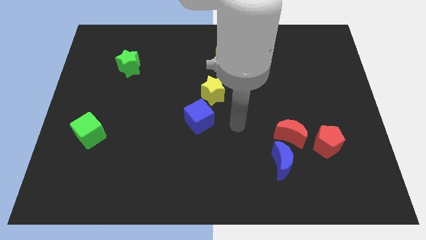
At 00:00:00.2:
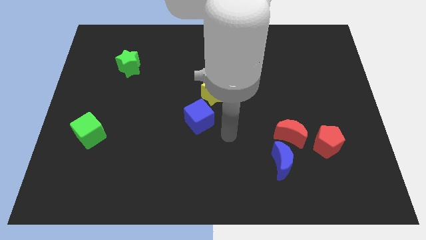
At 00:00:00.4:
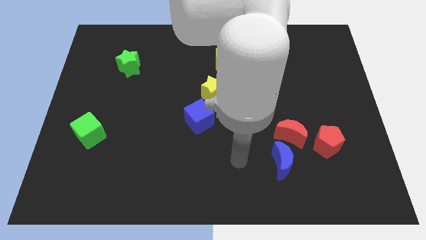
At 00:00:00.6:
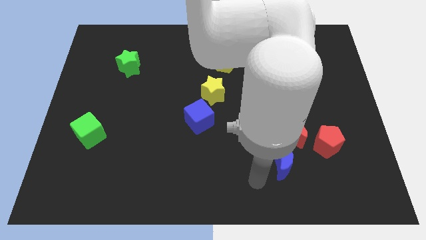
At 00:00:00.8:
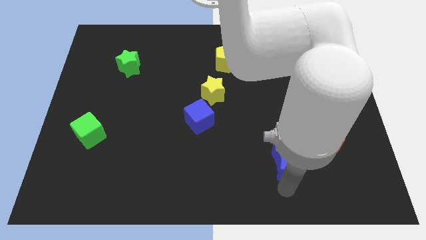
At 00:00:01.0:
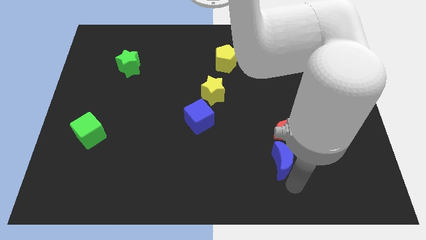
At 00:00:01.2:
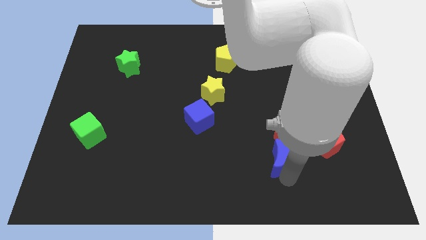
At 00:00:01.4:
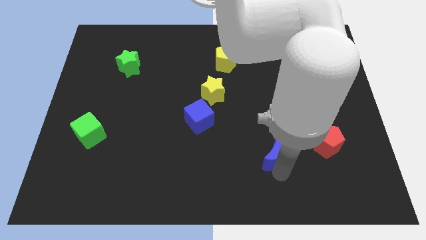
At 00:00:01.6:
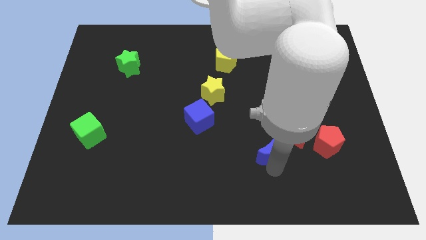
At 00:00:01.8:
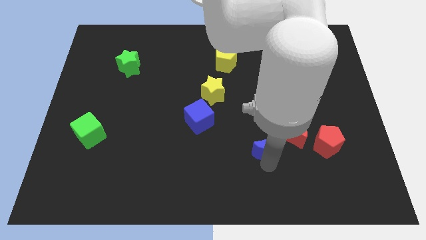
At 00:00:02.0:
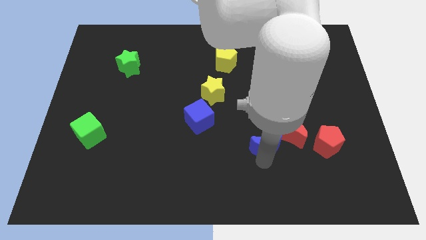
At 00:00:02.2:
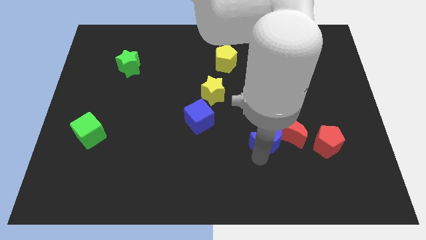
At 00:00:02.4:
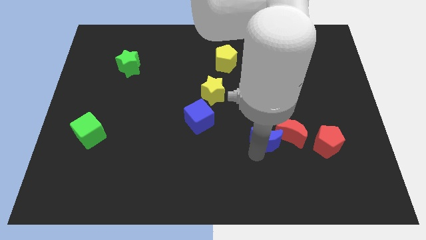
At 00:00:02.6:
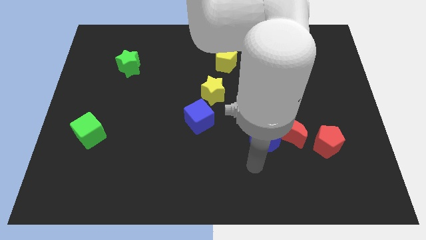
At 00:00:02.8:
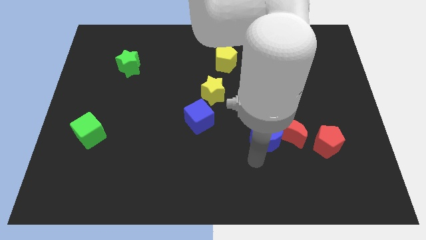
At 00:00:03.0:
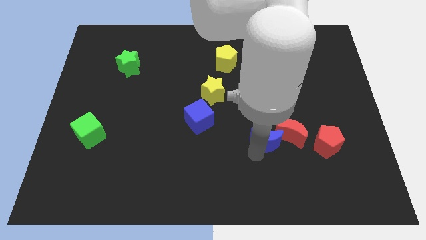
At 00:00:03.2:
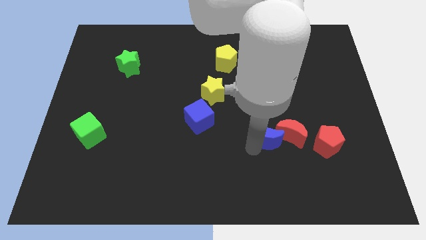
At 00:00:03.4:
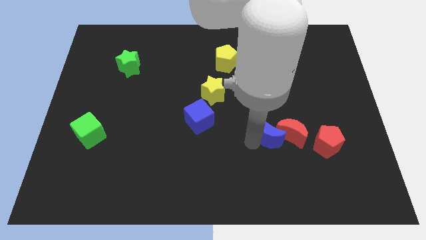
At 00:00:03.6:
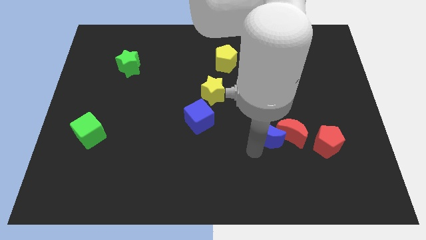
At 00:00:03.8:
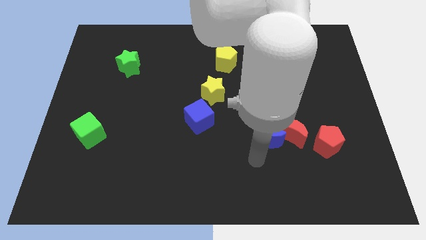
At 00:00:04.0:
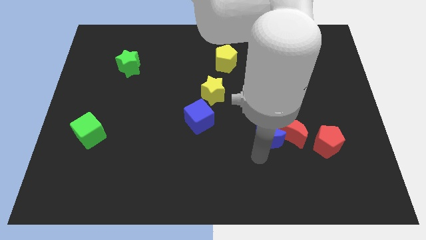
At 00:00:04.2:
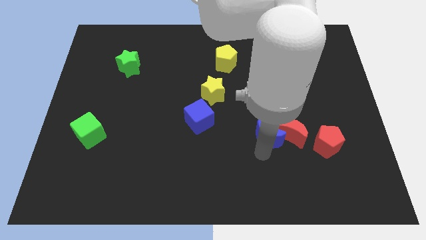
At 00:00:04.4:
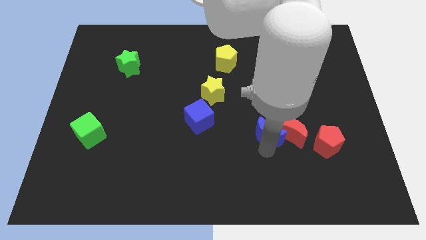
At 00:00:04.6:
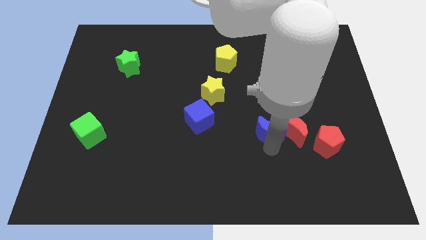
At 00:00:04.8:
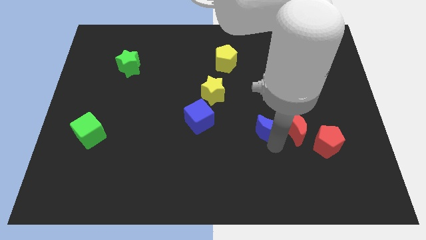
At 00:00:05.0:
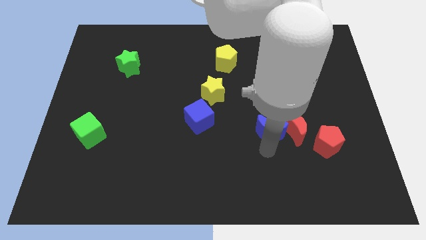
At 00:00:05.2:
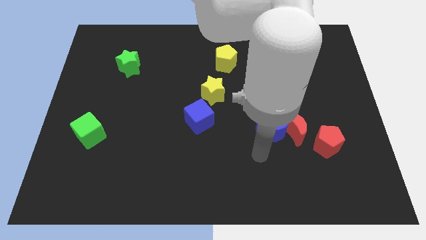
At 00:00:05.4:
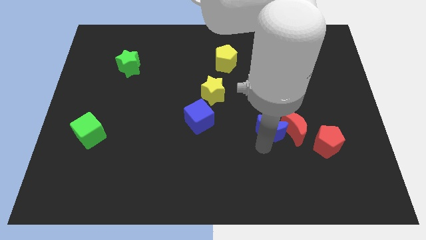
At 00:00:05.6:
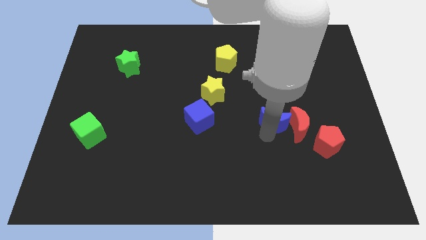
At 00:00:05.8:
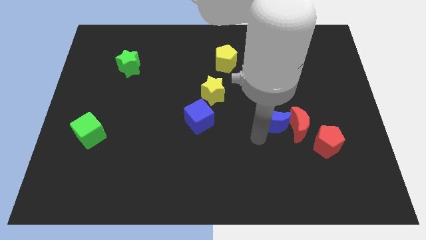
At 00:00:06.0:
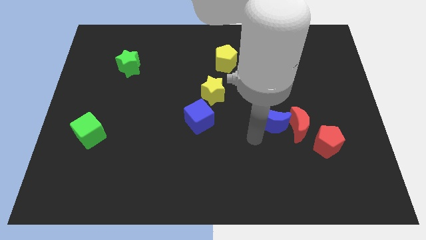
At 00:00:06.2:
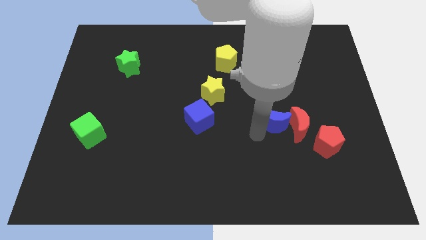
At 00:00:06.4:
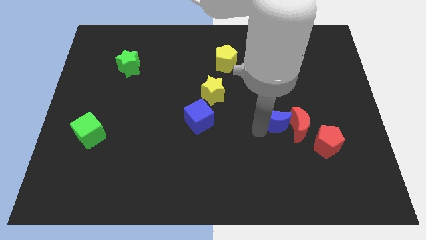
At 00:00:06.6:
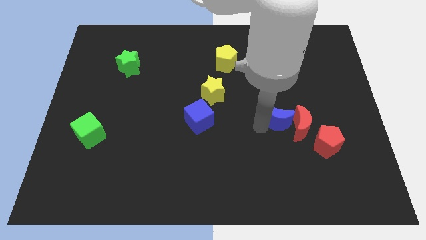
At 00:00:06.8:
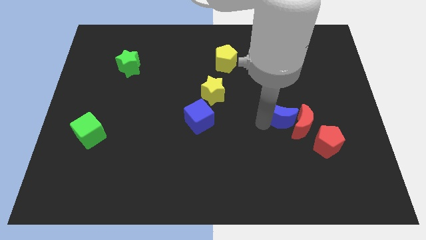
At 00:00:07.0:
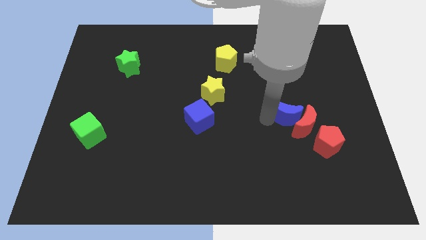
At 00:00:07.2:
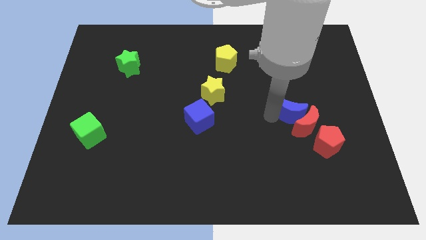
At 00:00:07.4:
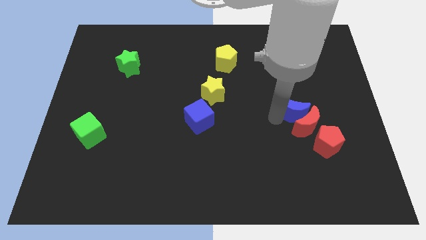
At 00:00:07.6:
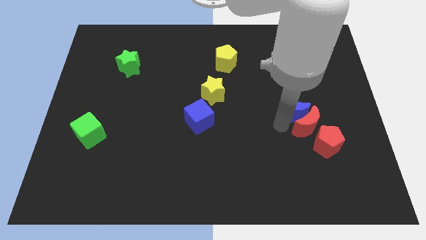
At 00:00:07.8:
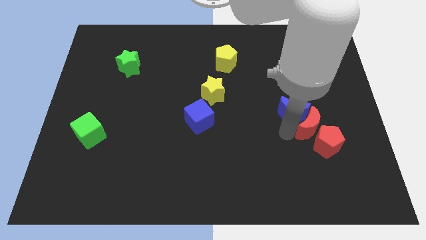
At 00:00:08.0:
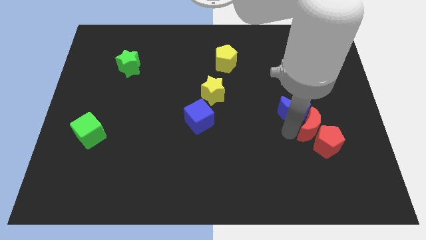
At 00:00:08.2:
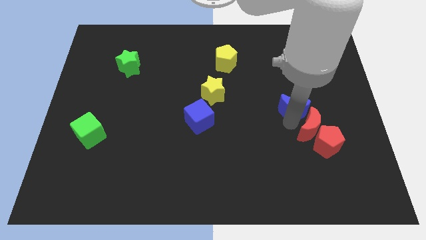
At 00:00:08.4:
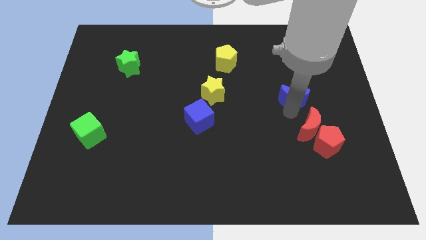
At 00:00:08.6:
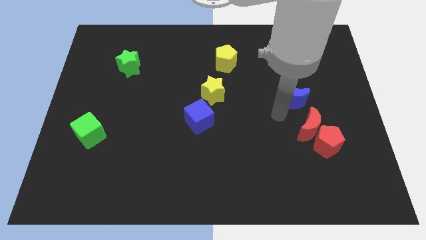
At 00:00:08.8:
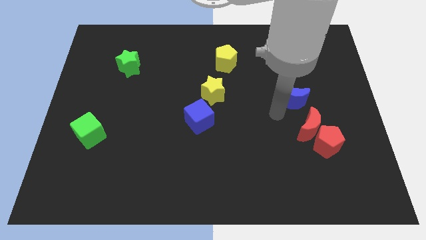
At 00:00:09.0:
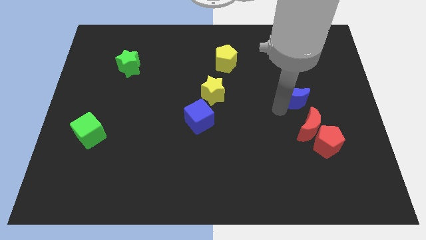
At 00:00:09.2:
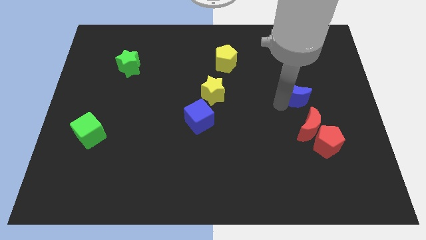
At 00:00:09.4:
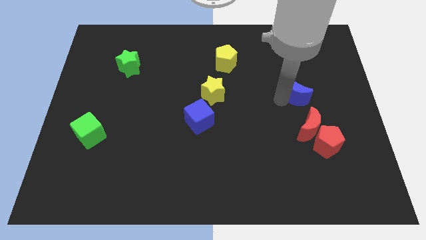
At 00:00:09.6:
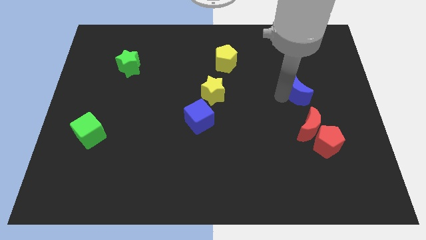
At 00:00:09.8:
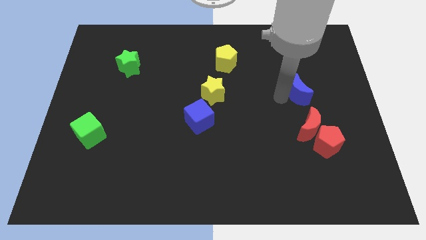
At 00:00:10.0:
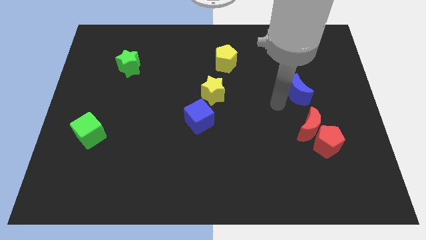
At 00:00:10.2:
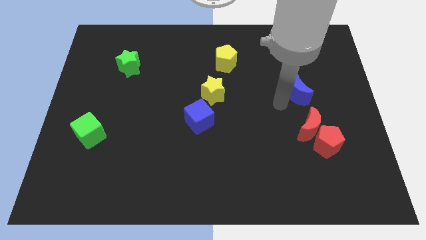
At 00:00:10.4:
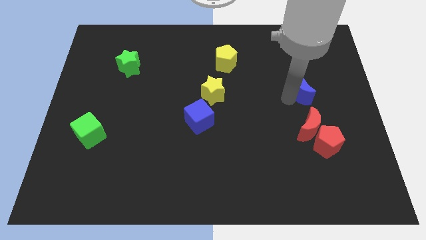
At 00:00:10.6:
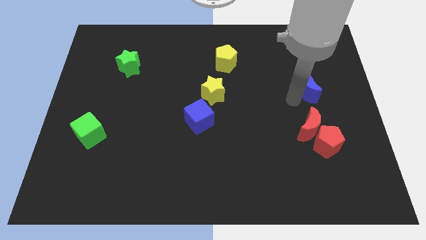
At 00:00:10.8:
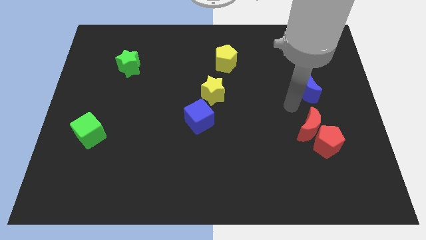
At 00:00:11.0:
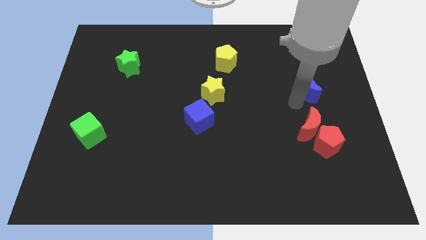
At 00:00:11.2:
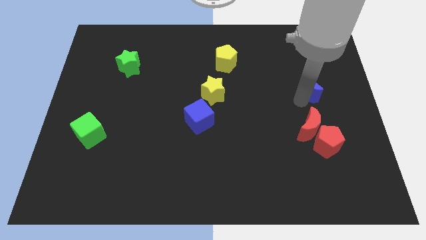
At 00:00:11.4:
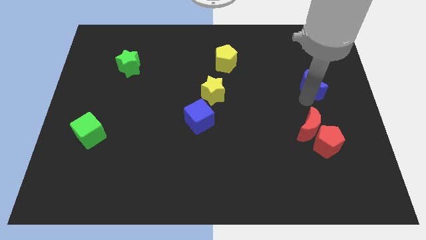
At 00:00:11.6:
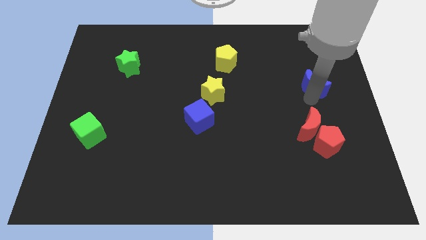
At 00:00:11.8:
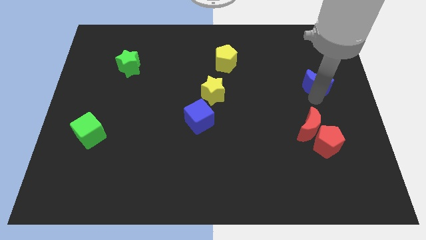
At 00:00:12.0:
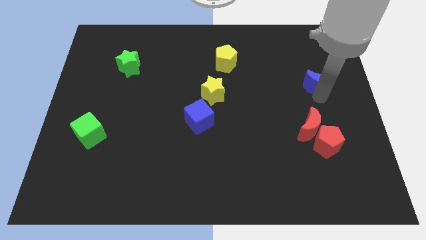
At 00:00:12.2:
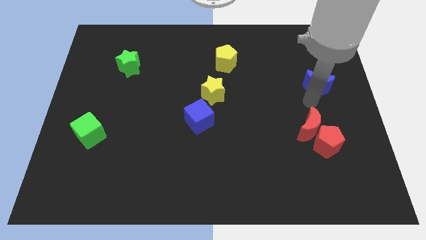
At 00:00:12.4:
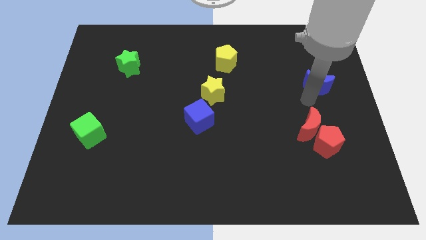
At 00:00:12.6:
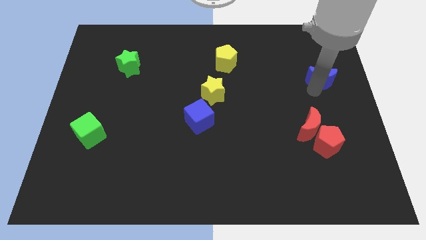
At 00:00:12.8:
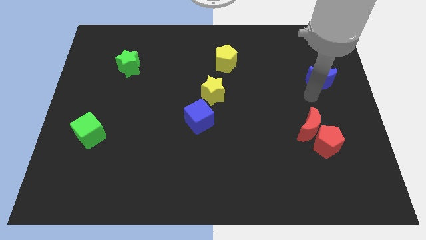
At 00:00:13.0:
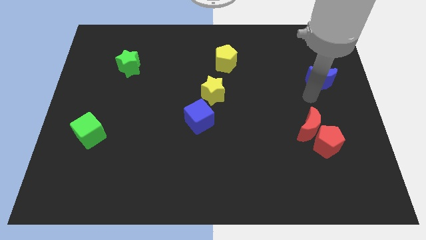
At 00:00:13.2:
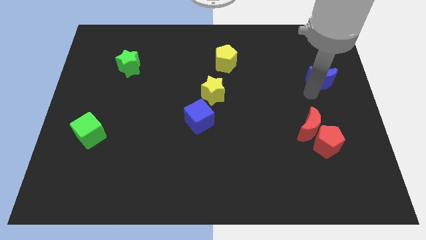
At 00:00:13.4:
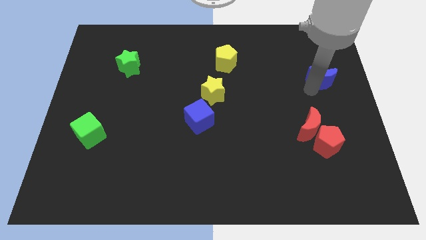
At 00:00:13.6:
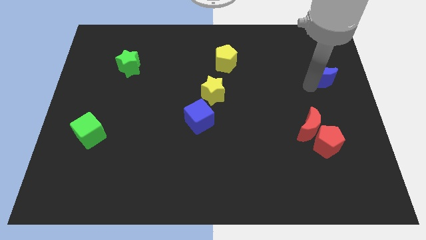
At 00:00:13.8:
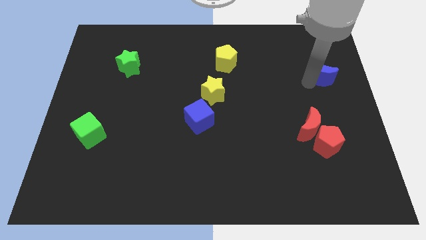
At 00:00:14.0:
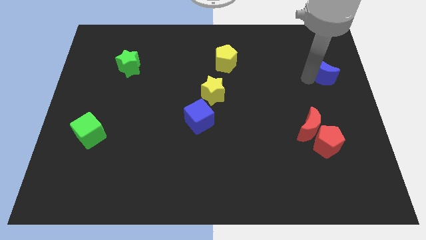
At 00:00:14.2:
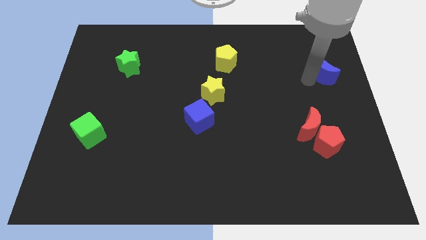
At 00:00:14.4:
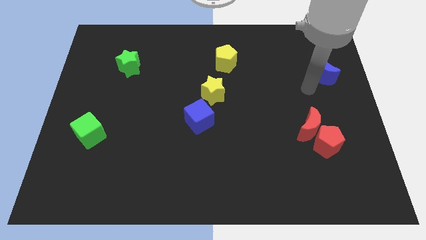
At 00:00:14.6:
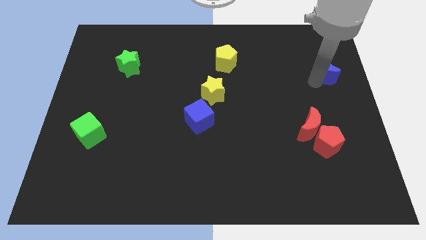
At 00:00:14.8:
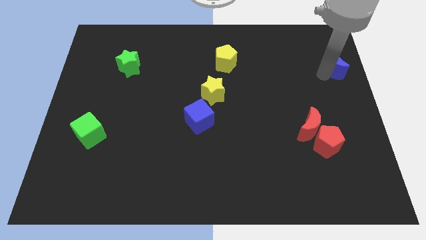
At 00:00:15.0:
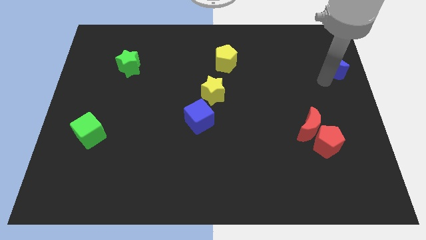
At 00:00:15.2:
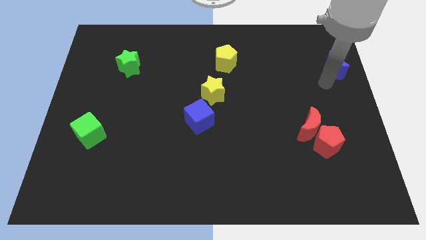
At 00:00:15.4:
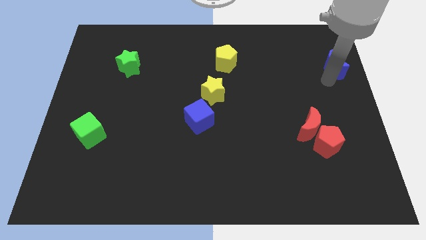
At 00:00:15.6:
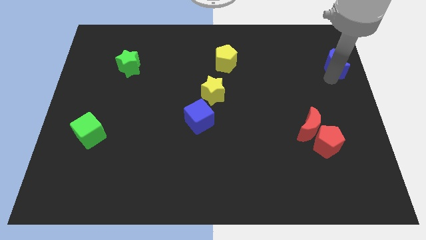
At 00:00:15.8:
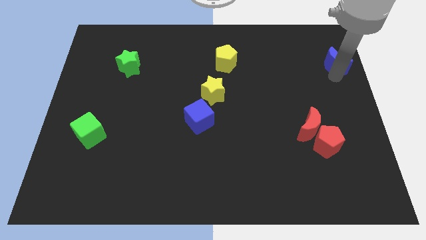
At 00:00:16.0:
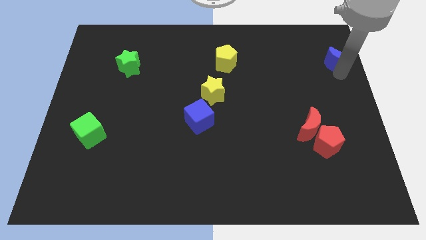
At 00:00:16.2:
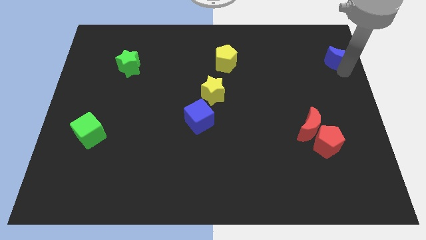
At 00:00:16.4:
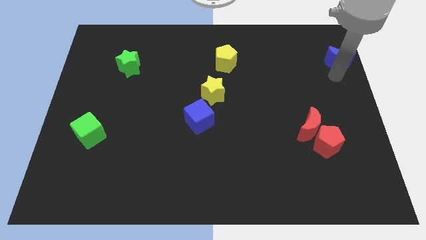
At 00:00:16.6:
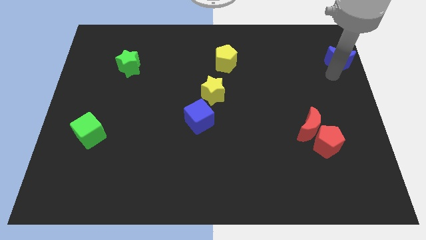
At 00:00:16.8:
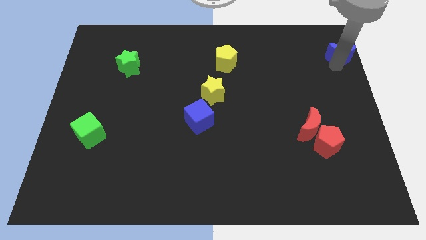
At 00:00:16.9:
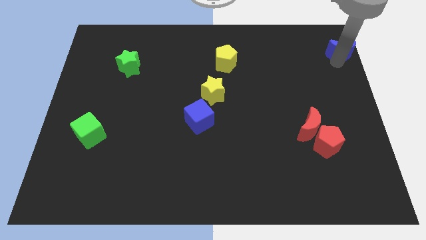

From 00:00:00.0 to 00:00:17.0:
push the blue moon to the top right
